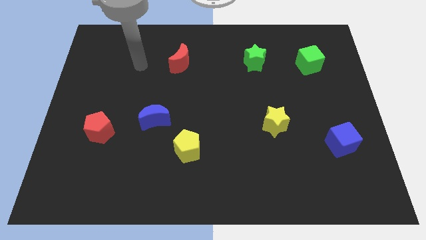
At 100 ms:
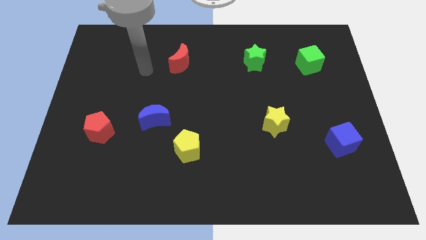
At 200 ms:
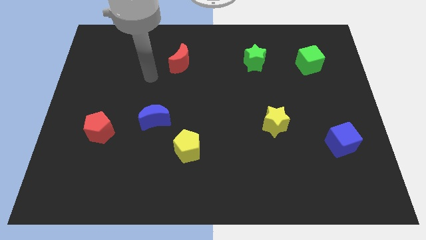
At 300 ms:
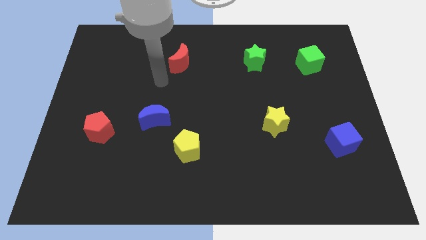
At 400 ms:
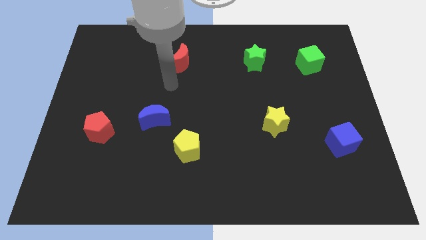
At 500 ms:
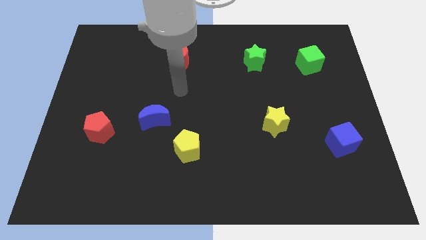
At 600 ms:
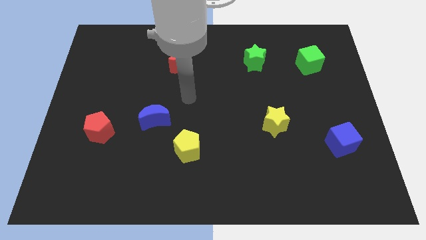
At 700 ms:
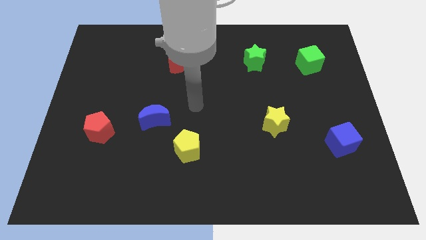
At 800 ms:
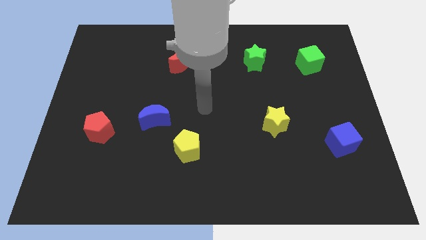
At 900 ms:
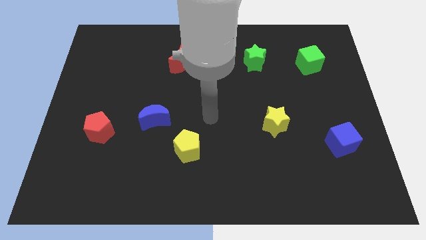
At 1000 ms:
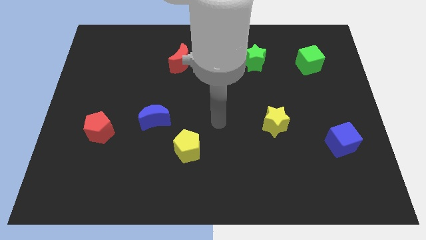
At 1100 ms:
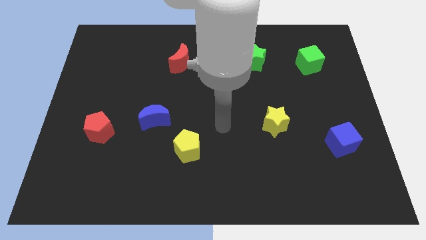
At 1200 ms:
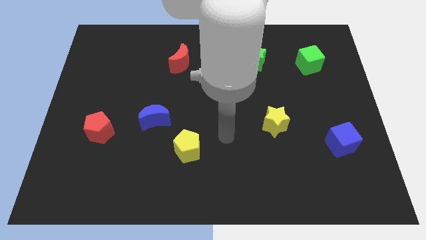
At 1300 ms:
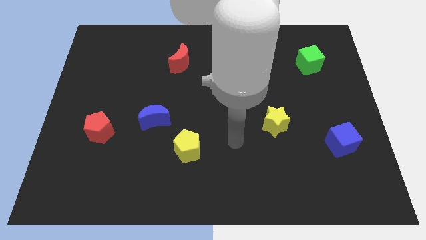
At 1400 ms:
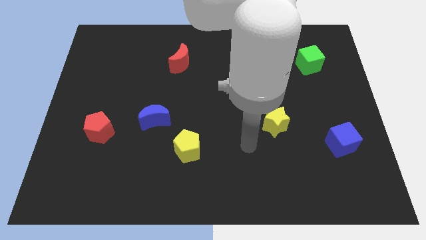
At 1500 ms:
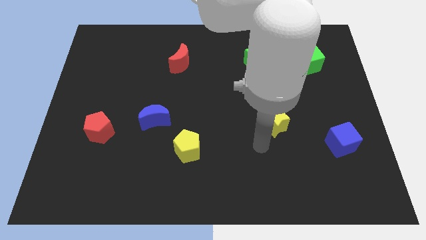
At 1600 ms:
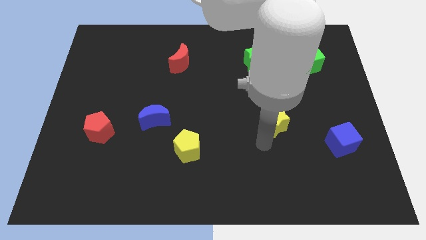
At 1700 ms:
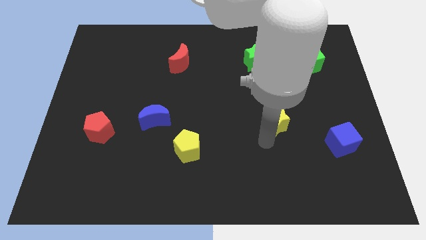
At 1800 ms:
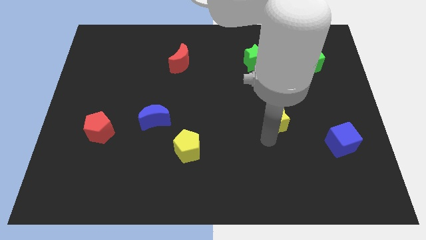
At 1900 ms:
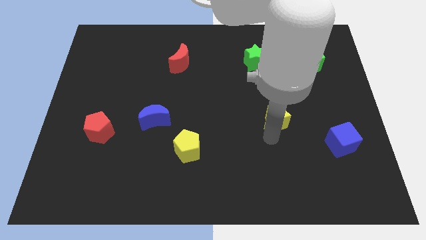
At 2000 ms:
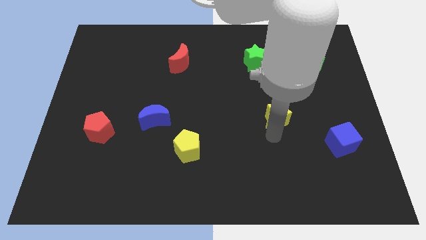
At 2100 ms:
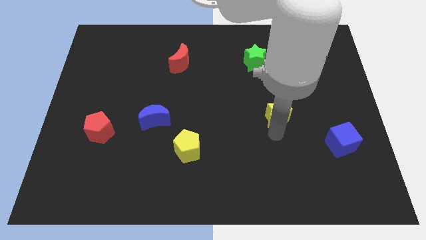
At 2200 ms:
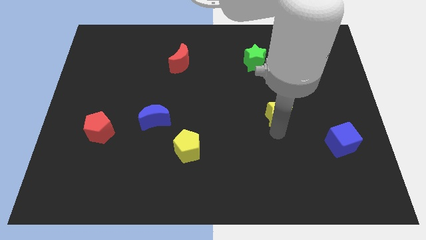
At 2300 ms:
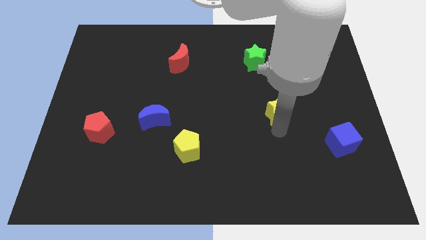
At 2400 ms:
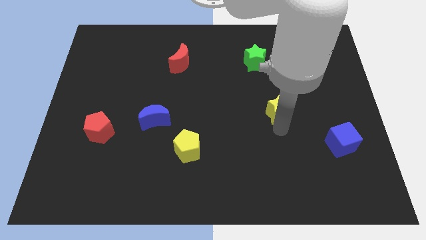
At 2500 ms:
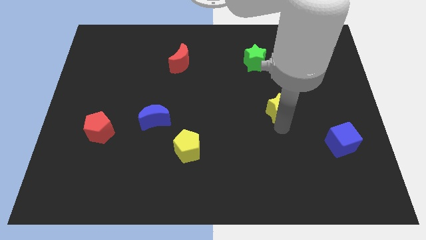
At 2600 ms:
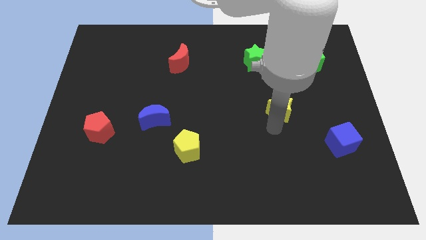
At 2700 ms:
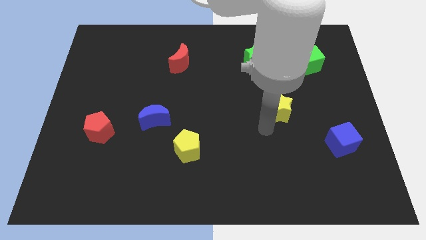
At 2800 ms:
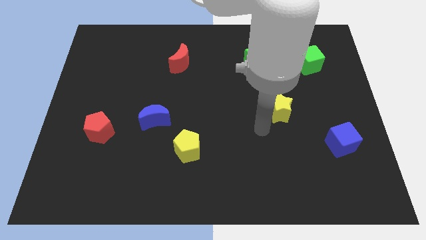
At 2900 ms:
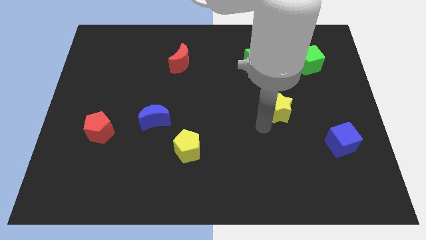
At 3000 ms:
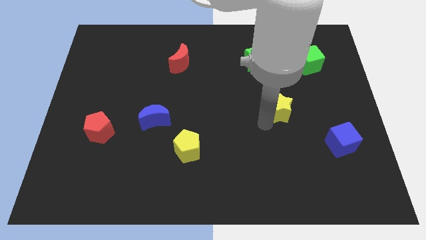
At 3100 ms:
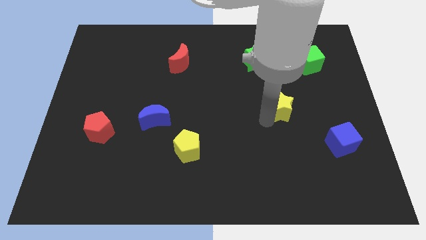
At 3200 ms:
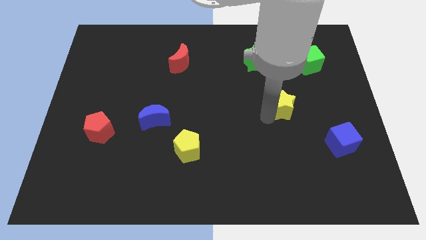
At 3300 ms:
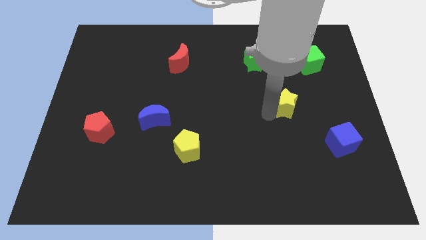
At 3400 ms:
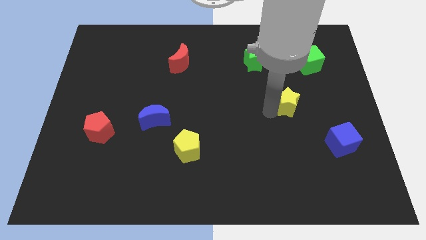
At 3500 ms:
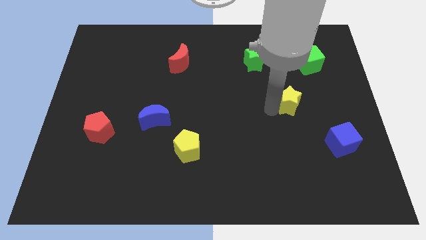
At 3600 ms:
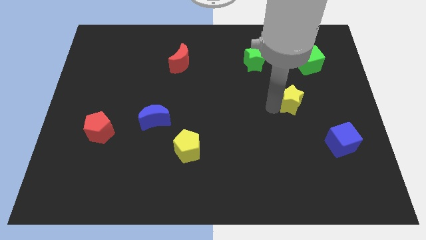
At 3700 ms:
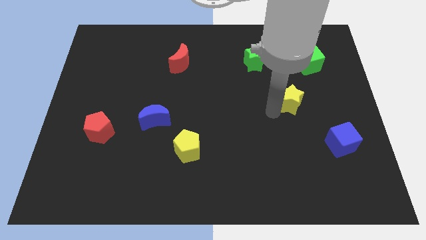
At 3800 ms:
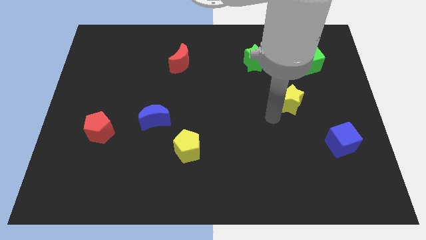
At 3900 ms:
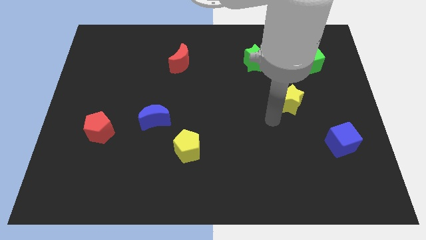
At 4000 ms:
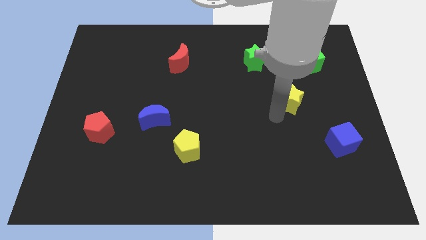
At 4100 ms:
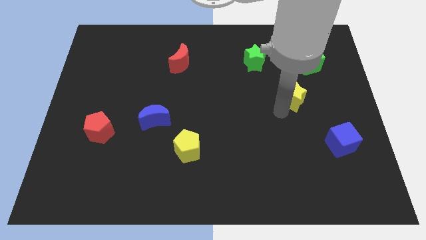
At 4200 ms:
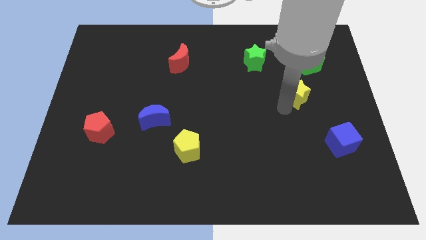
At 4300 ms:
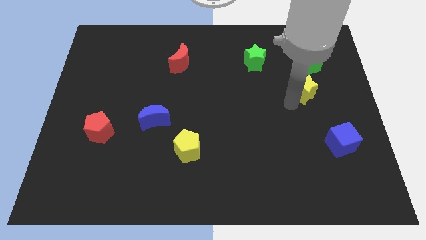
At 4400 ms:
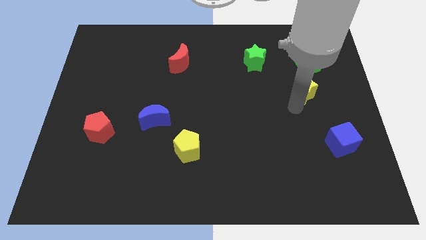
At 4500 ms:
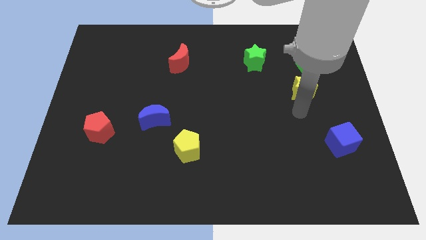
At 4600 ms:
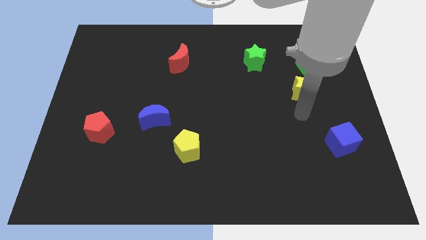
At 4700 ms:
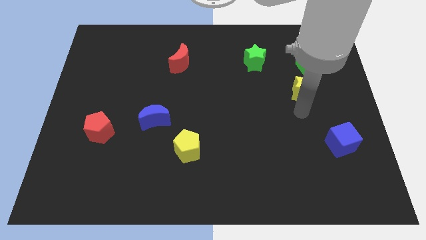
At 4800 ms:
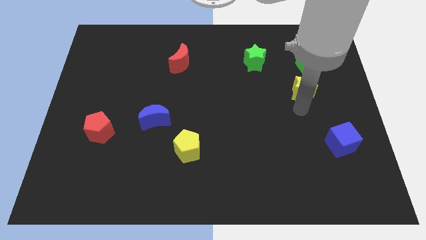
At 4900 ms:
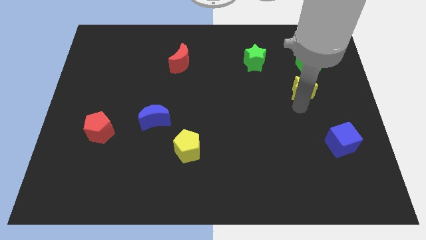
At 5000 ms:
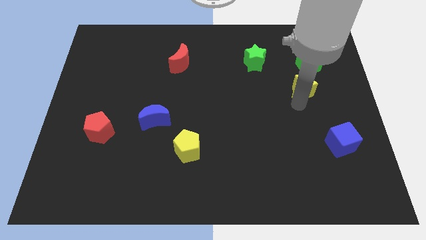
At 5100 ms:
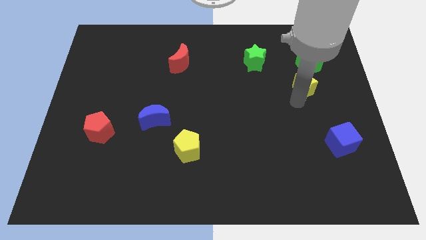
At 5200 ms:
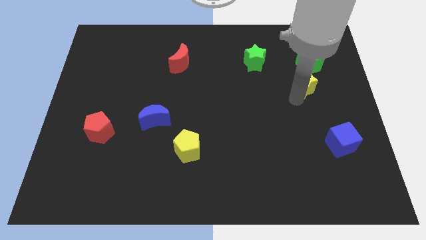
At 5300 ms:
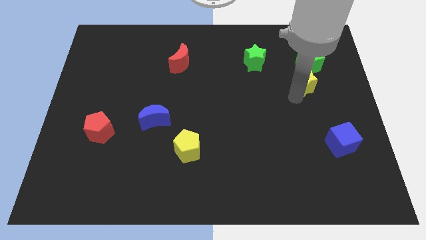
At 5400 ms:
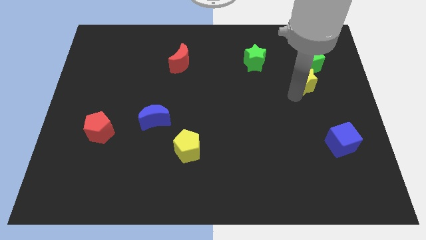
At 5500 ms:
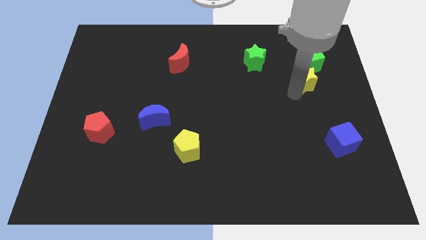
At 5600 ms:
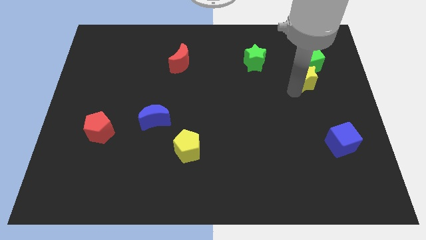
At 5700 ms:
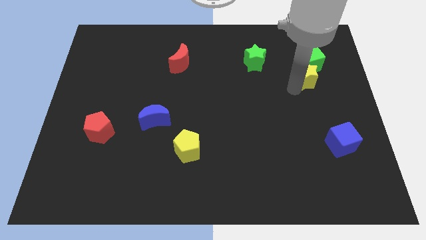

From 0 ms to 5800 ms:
put the yellow star towards the green cube

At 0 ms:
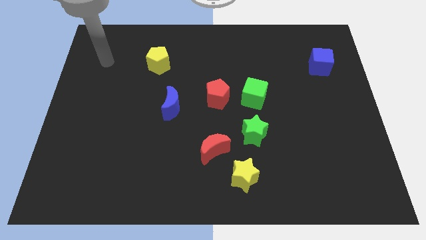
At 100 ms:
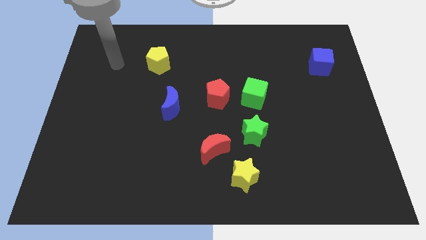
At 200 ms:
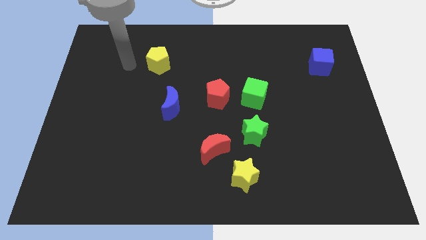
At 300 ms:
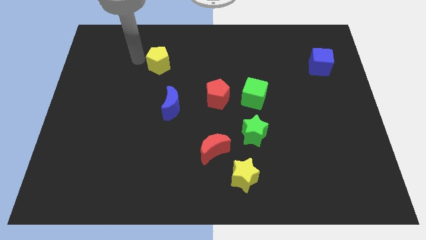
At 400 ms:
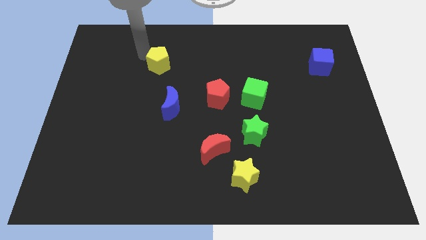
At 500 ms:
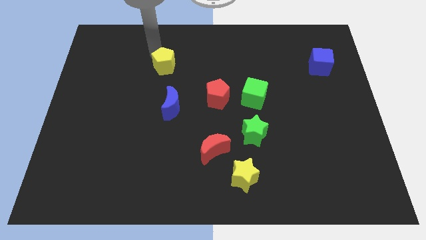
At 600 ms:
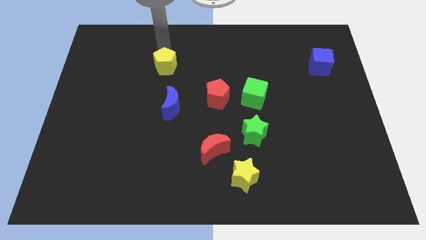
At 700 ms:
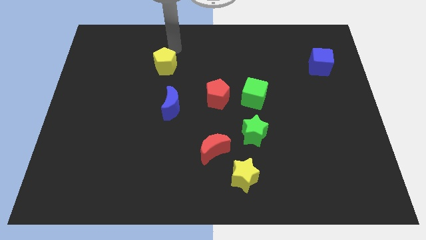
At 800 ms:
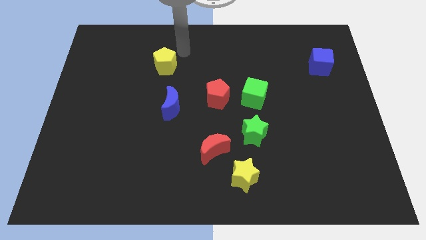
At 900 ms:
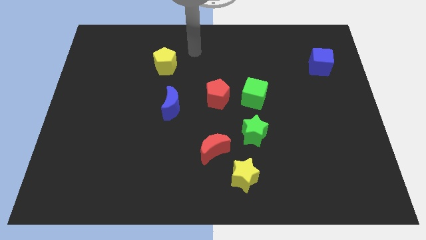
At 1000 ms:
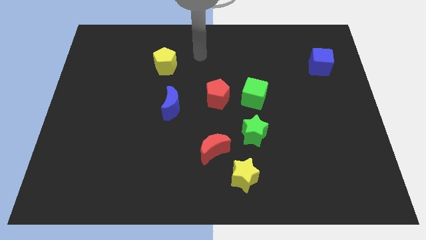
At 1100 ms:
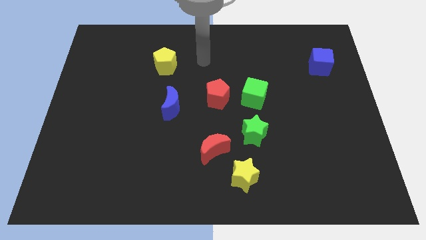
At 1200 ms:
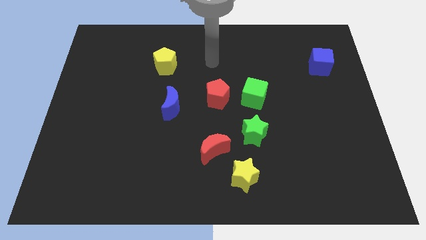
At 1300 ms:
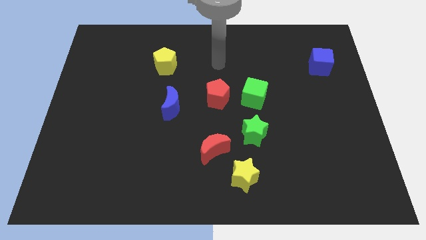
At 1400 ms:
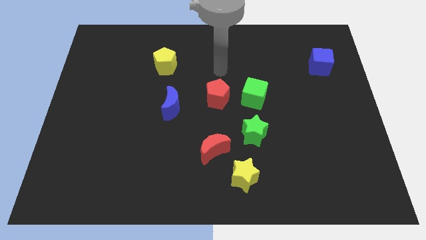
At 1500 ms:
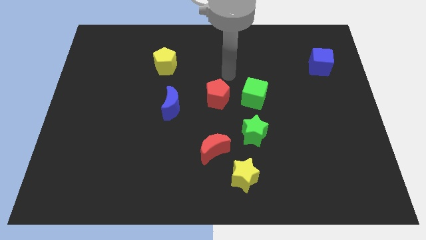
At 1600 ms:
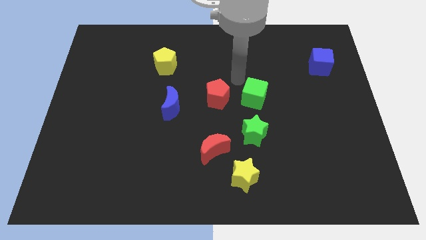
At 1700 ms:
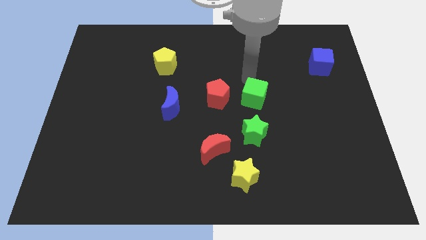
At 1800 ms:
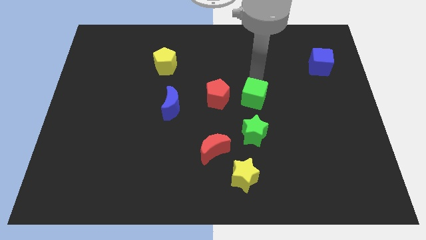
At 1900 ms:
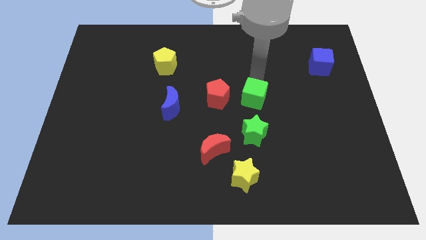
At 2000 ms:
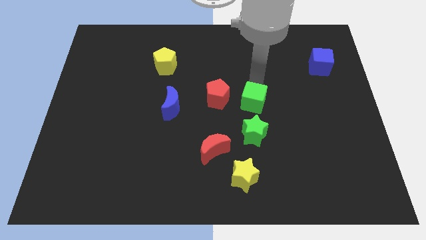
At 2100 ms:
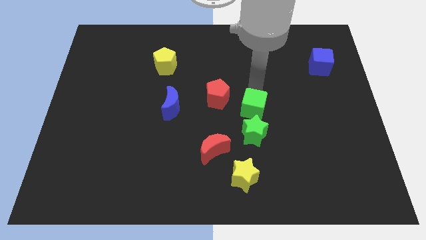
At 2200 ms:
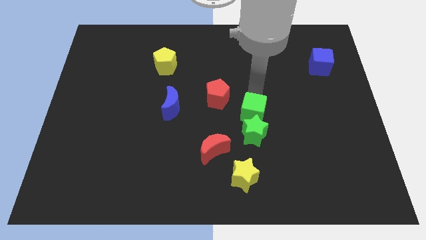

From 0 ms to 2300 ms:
put the green cube to the green star
